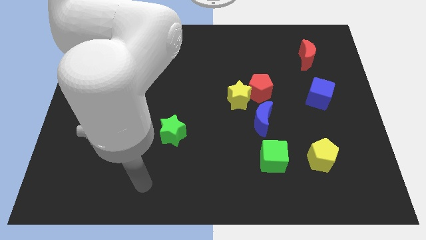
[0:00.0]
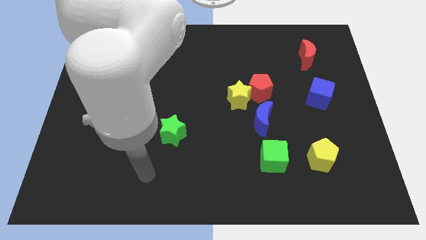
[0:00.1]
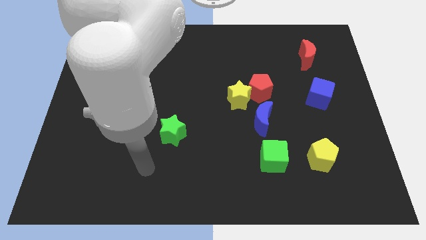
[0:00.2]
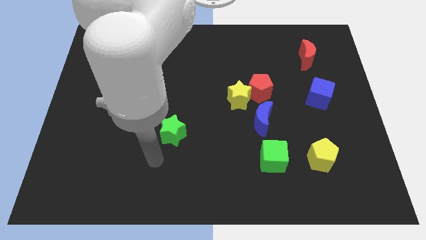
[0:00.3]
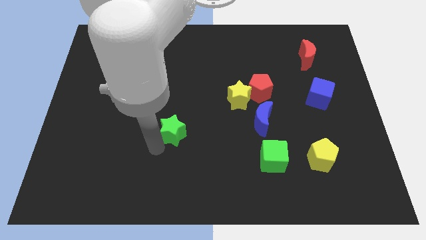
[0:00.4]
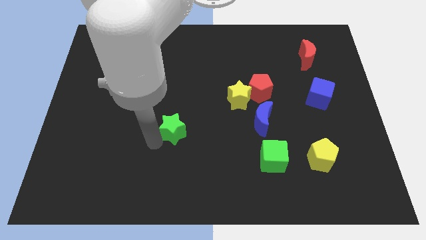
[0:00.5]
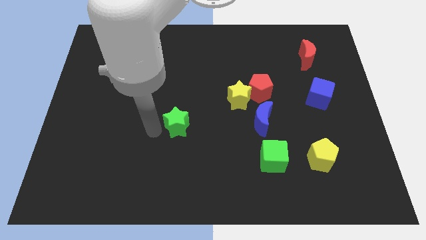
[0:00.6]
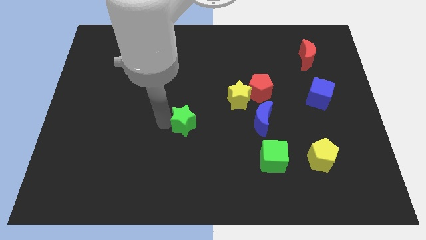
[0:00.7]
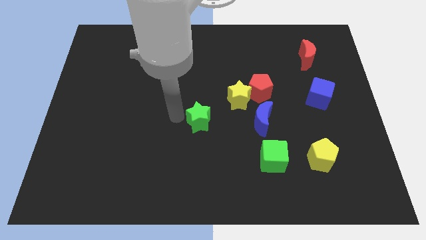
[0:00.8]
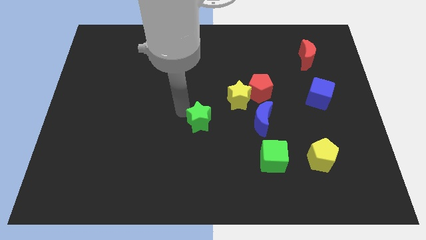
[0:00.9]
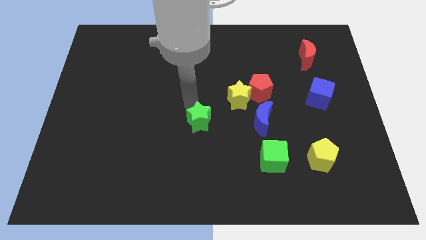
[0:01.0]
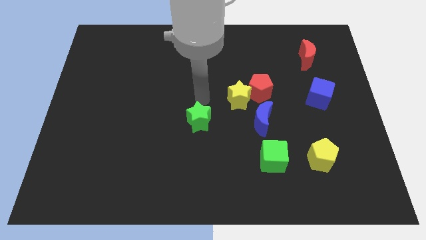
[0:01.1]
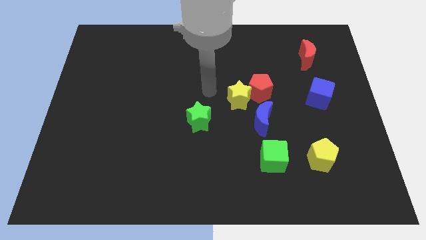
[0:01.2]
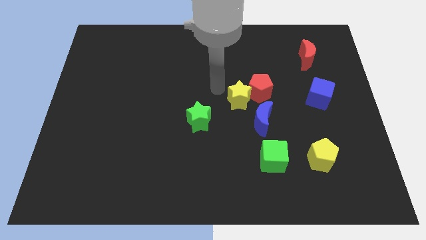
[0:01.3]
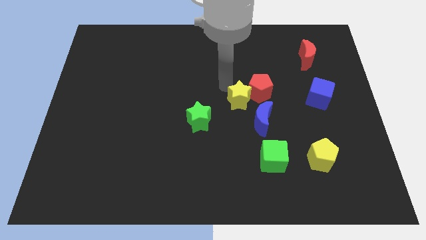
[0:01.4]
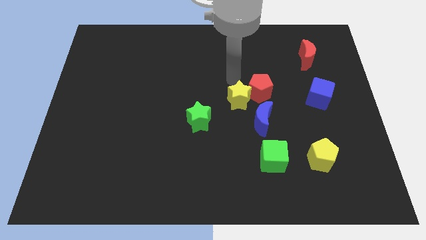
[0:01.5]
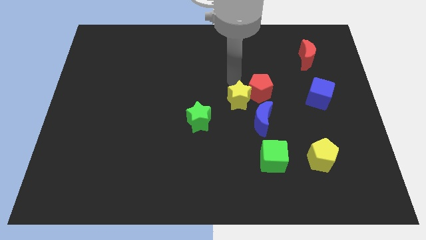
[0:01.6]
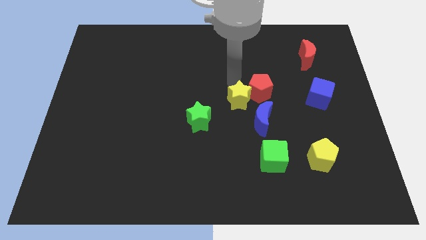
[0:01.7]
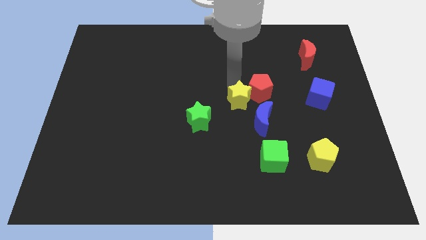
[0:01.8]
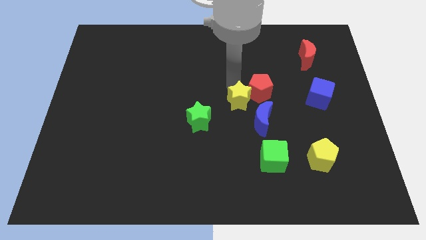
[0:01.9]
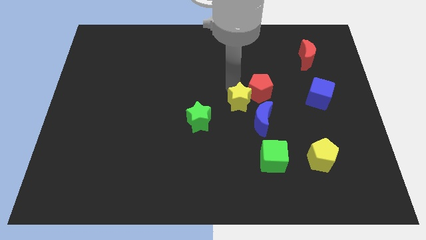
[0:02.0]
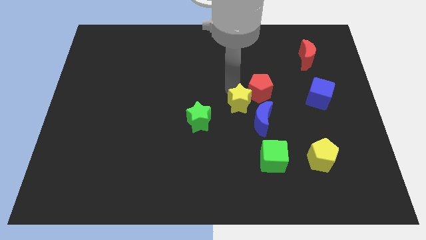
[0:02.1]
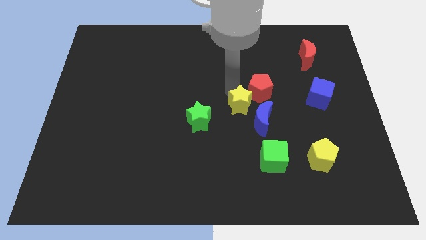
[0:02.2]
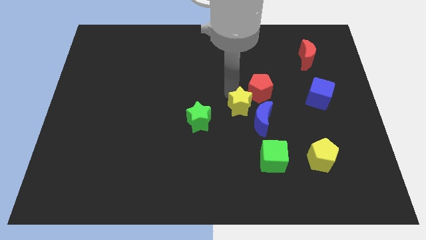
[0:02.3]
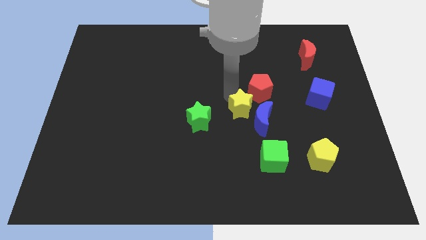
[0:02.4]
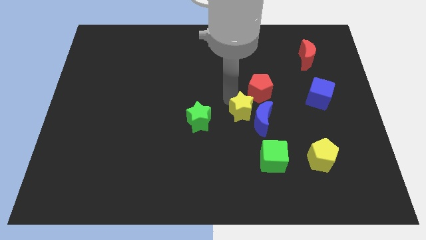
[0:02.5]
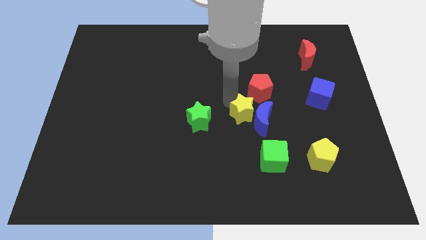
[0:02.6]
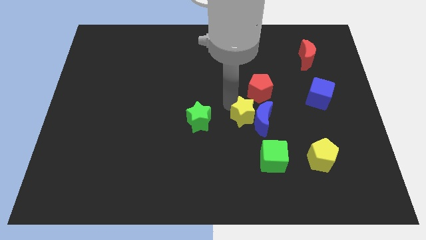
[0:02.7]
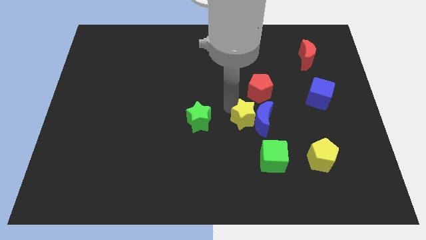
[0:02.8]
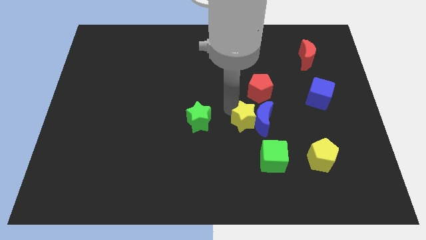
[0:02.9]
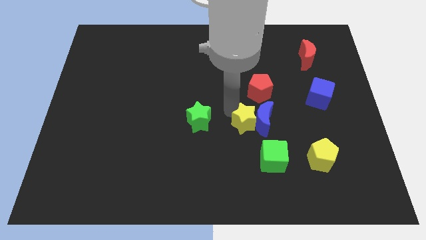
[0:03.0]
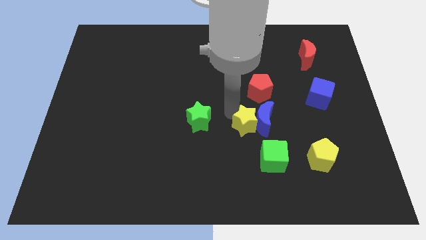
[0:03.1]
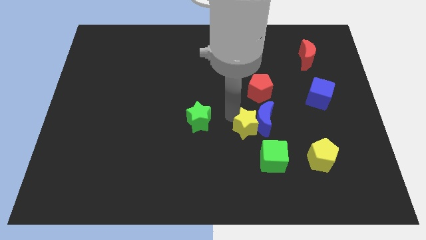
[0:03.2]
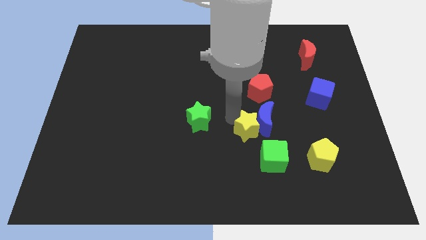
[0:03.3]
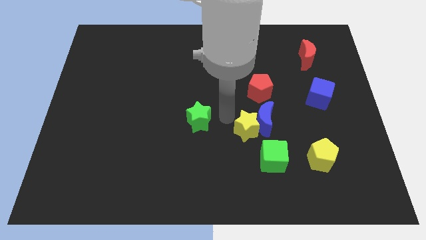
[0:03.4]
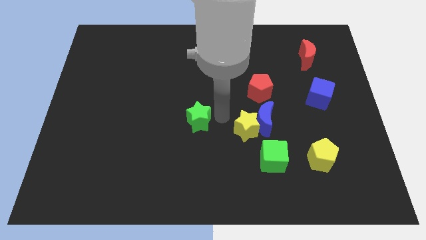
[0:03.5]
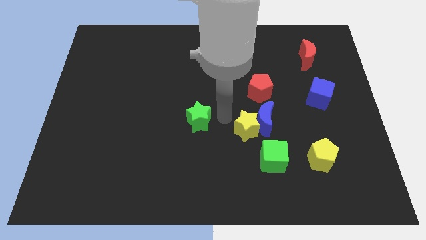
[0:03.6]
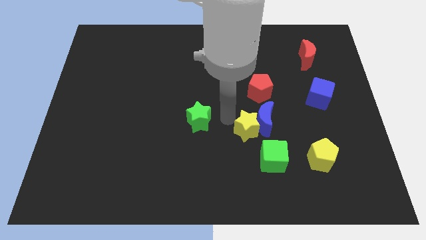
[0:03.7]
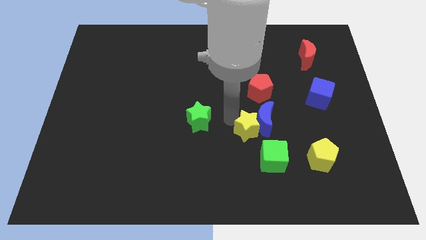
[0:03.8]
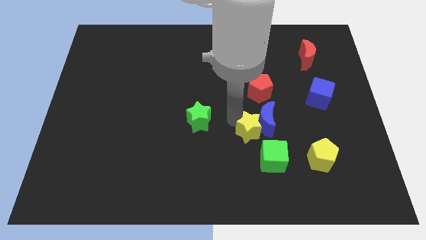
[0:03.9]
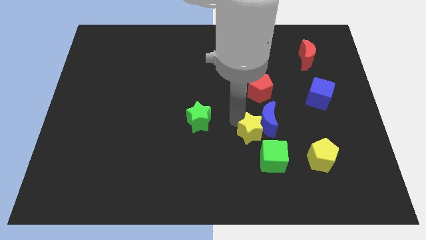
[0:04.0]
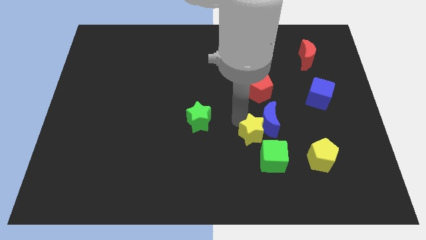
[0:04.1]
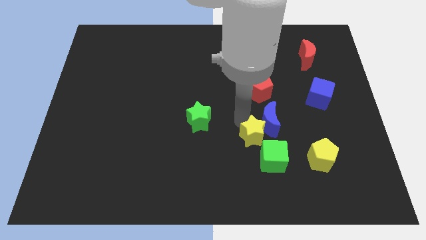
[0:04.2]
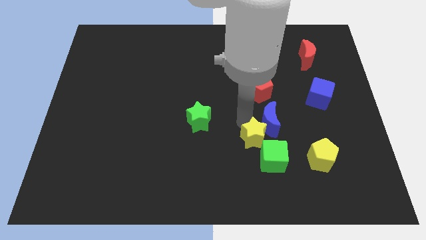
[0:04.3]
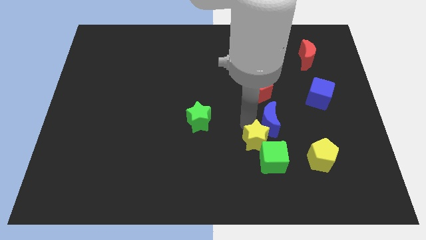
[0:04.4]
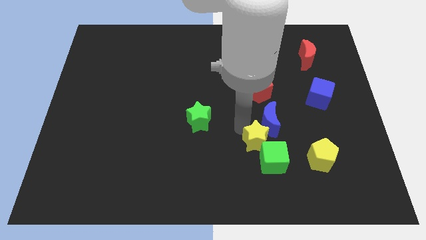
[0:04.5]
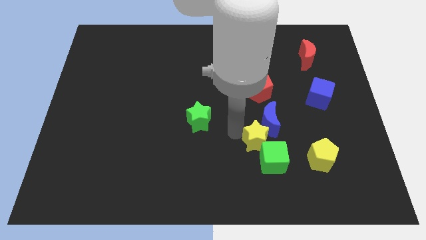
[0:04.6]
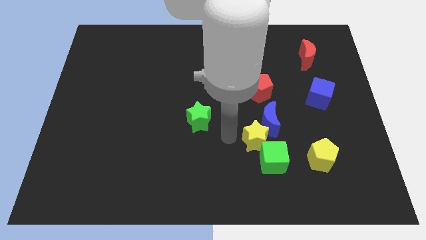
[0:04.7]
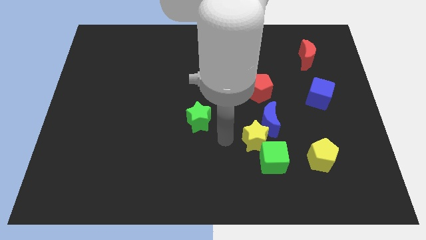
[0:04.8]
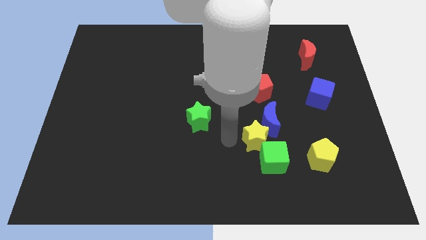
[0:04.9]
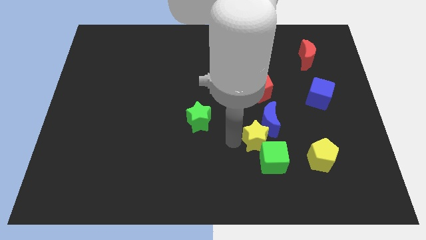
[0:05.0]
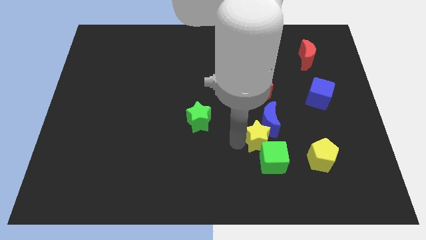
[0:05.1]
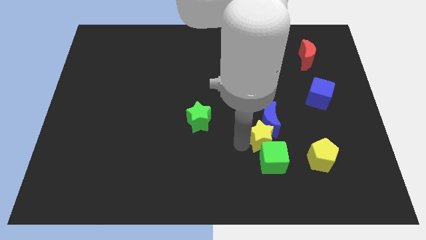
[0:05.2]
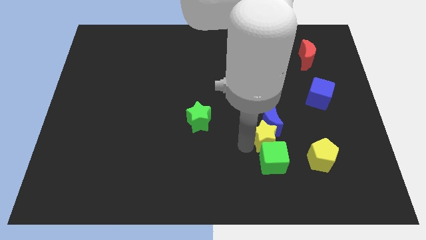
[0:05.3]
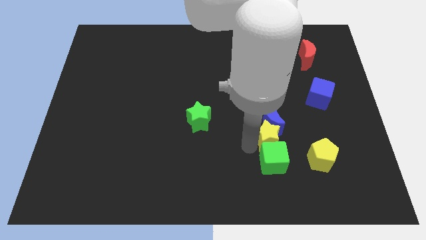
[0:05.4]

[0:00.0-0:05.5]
push the yellow star to the top right of the green cube

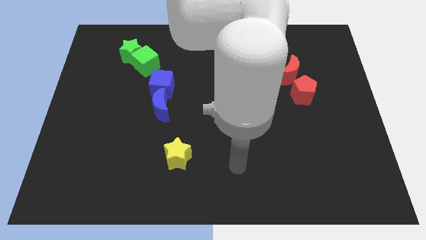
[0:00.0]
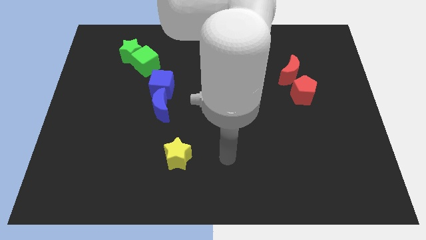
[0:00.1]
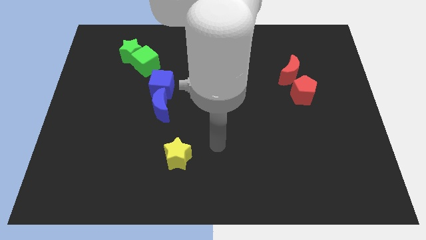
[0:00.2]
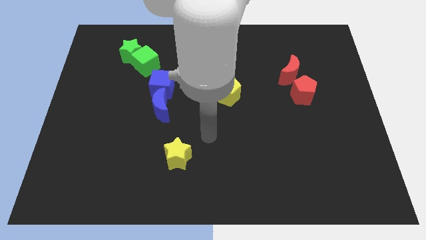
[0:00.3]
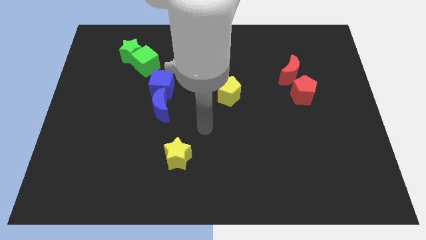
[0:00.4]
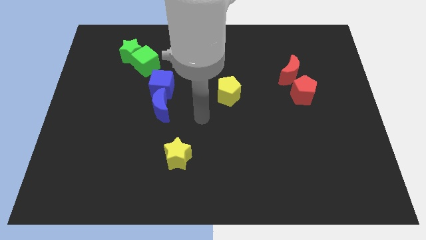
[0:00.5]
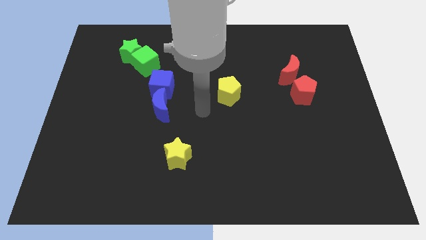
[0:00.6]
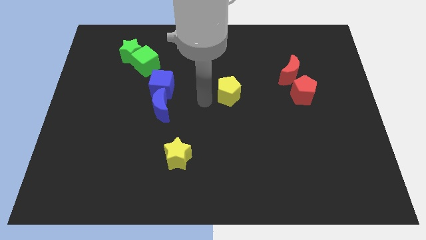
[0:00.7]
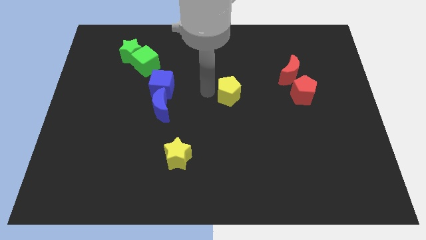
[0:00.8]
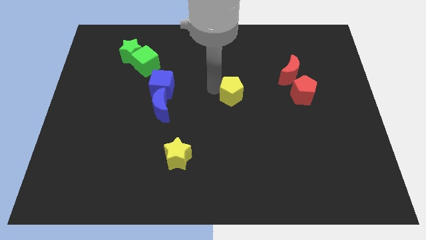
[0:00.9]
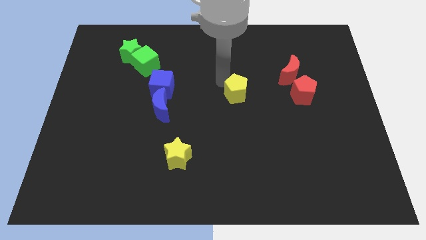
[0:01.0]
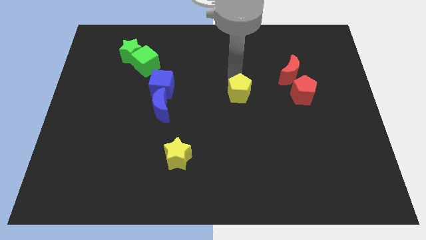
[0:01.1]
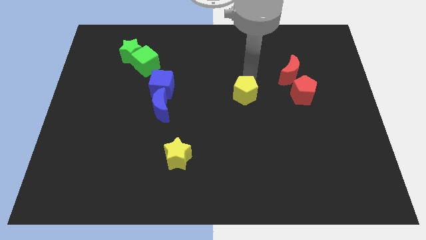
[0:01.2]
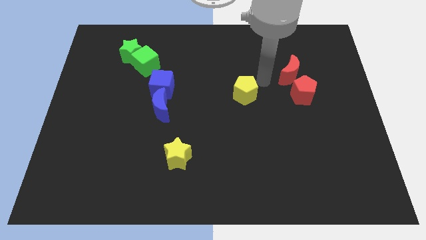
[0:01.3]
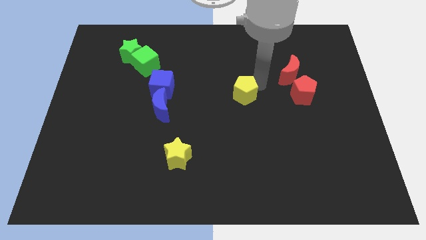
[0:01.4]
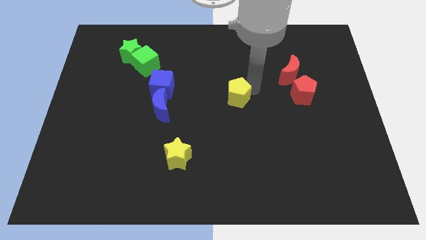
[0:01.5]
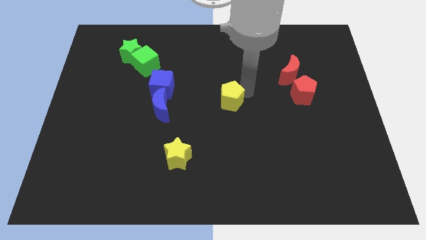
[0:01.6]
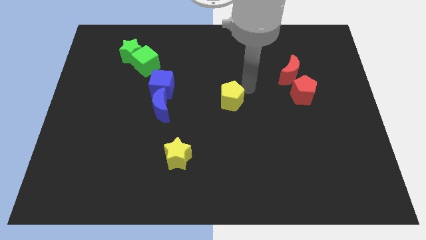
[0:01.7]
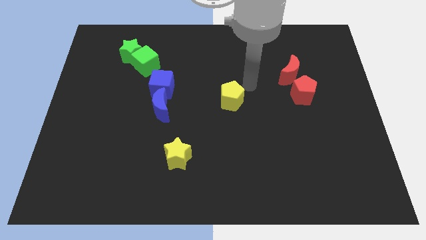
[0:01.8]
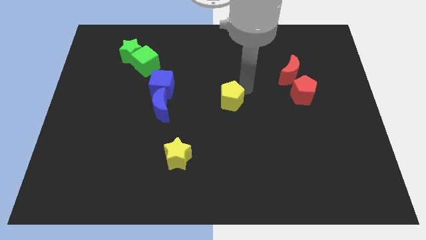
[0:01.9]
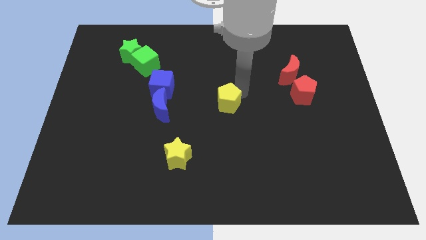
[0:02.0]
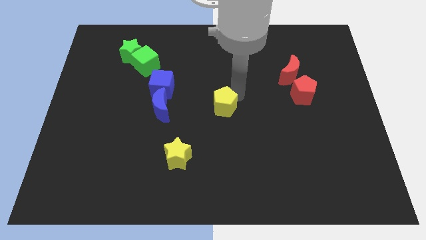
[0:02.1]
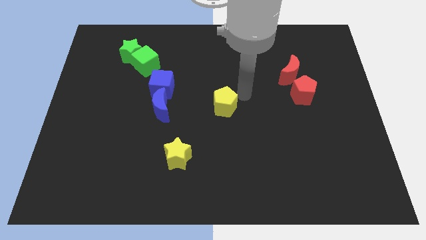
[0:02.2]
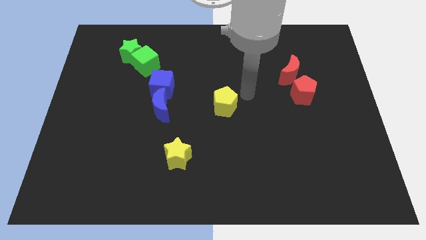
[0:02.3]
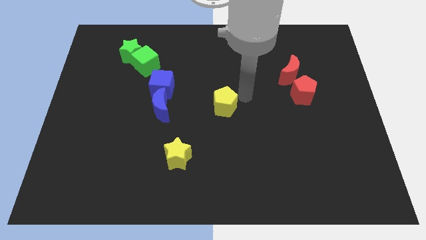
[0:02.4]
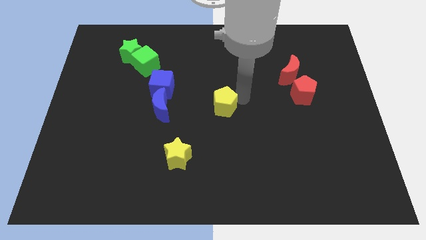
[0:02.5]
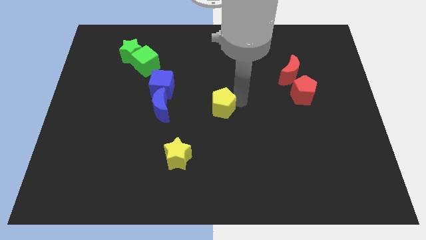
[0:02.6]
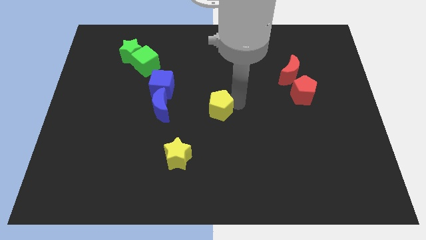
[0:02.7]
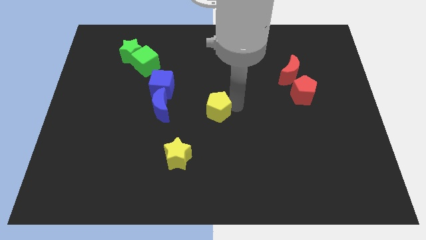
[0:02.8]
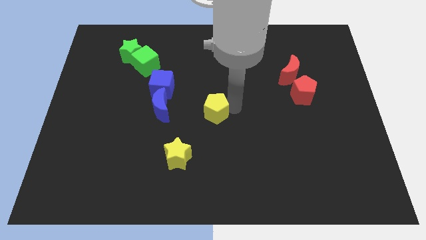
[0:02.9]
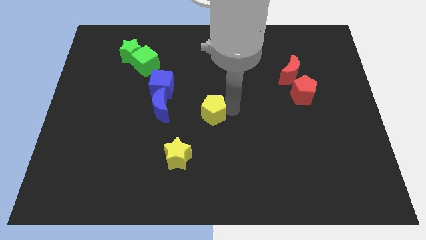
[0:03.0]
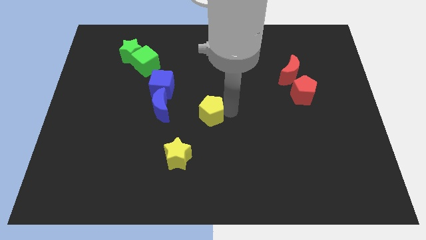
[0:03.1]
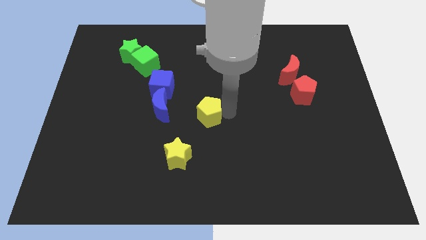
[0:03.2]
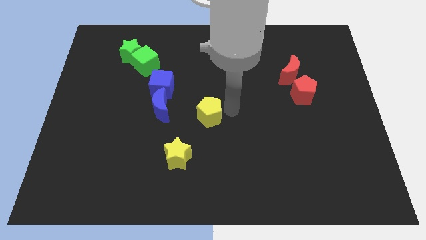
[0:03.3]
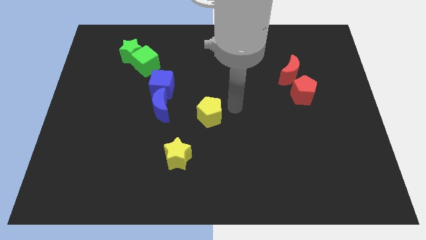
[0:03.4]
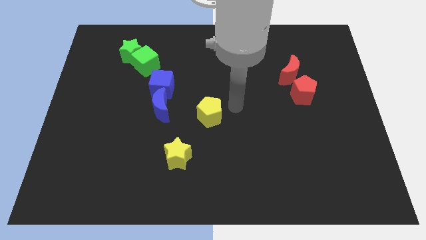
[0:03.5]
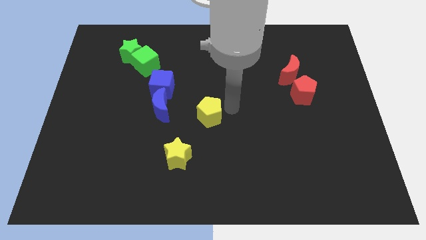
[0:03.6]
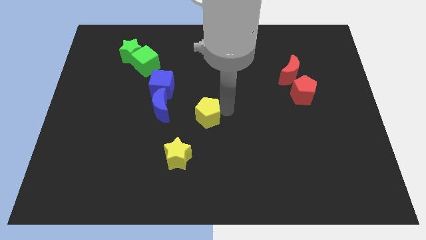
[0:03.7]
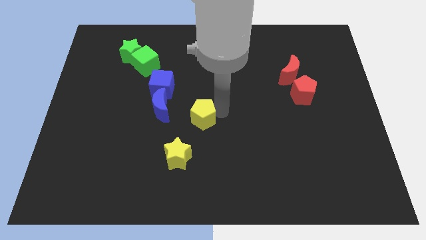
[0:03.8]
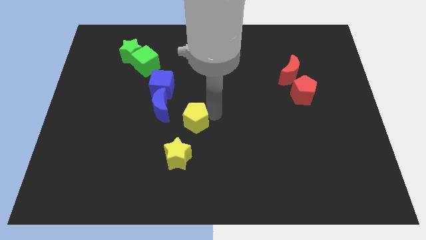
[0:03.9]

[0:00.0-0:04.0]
put the yellow pentagon diagonally down and to the right of the blue moon
